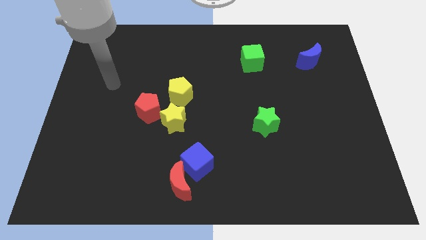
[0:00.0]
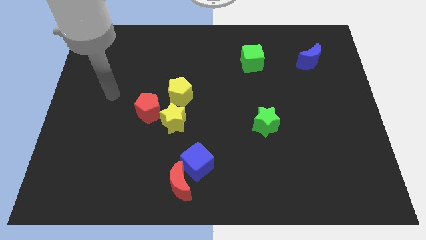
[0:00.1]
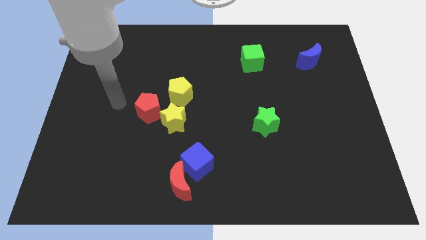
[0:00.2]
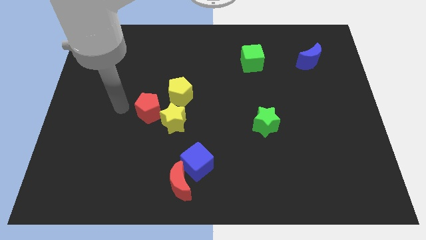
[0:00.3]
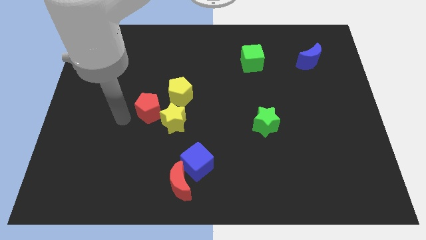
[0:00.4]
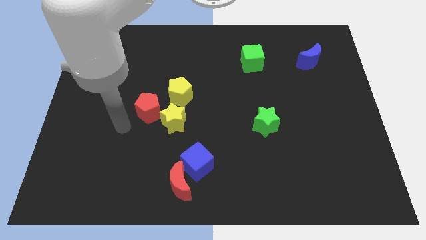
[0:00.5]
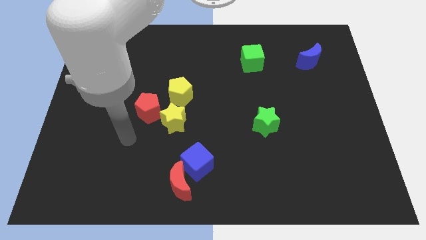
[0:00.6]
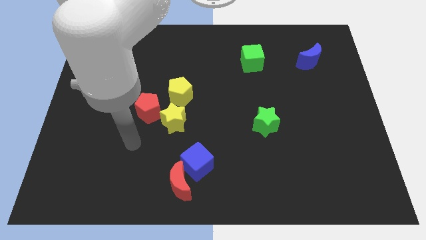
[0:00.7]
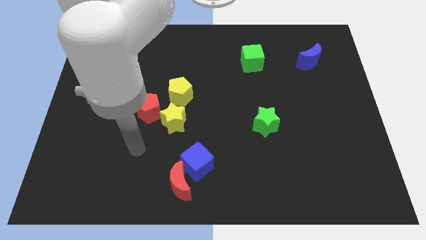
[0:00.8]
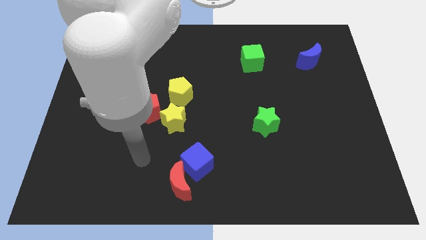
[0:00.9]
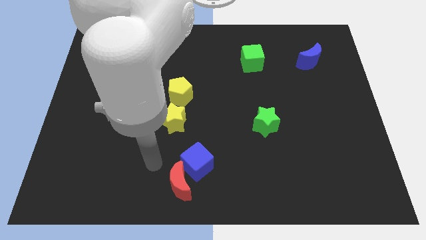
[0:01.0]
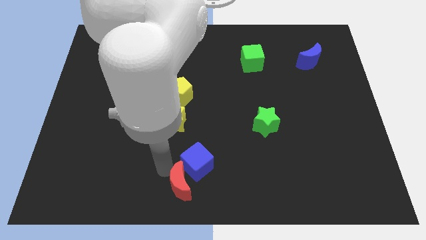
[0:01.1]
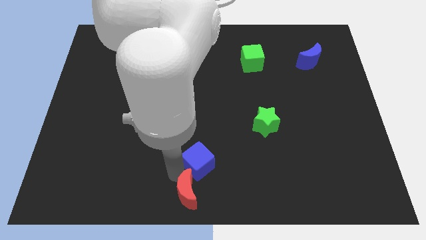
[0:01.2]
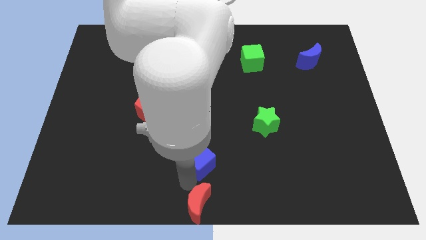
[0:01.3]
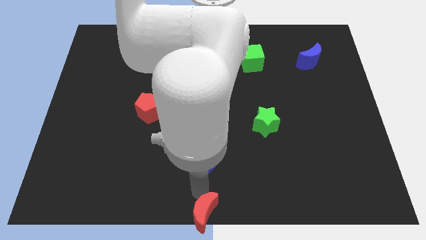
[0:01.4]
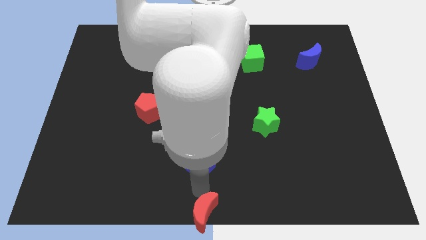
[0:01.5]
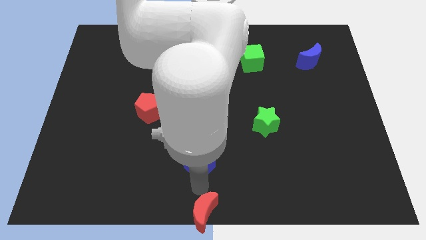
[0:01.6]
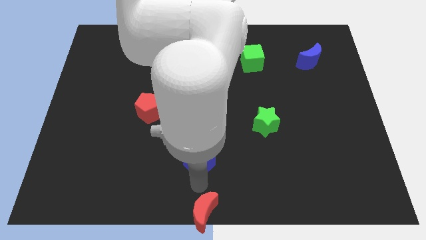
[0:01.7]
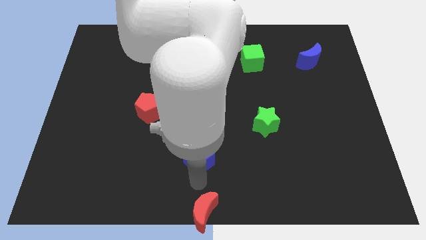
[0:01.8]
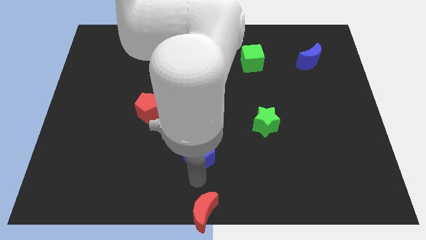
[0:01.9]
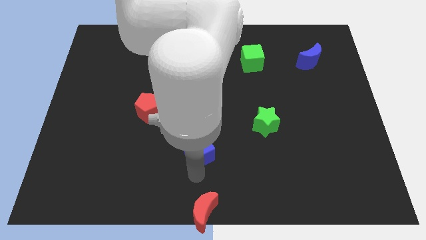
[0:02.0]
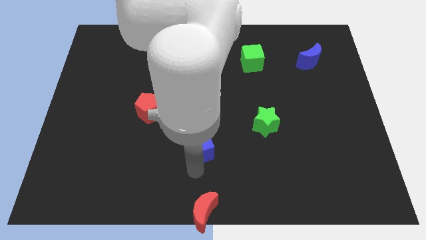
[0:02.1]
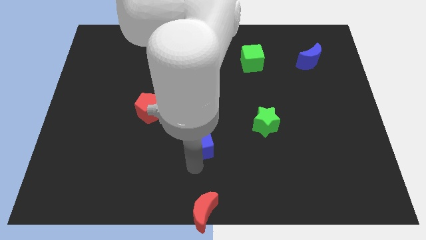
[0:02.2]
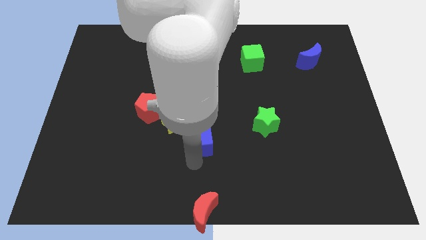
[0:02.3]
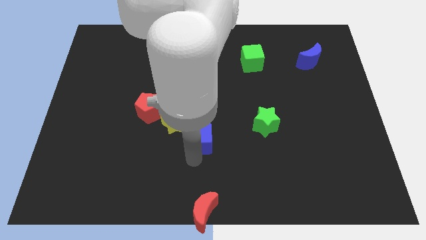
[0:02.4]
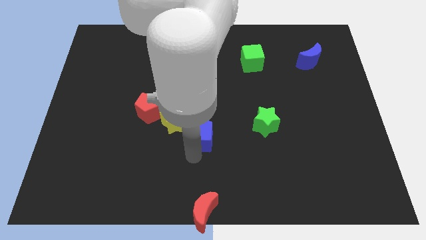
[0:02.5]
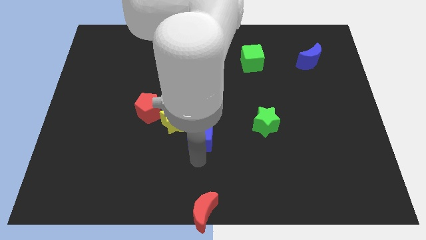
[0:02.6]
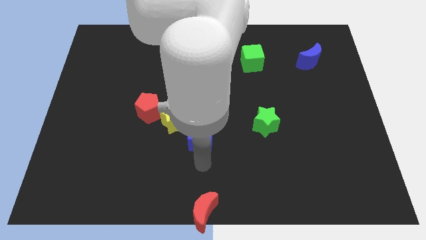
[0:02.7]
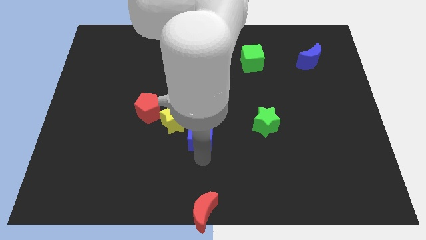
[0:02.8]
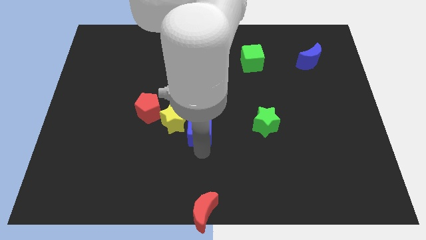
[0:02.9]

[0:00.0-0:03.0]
move the blue cube a little bit up

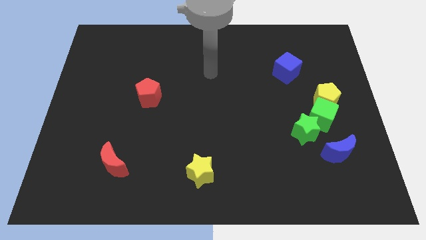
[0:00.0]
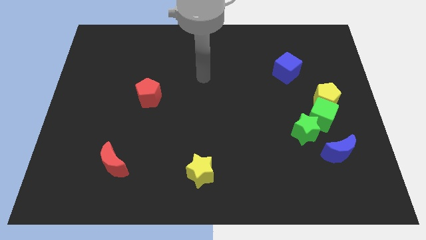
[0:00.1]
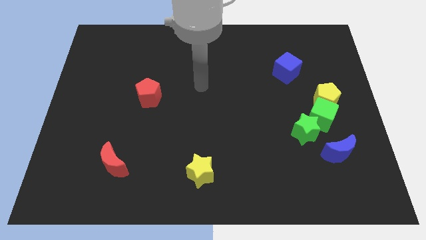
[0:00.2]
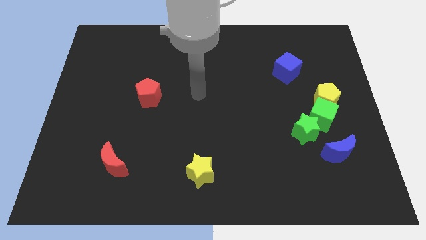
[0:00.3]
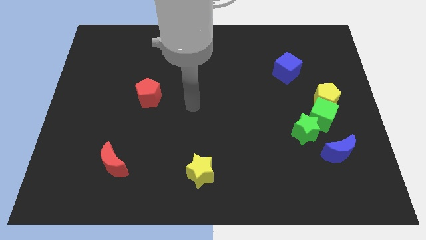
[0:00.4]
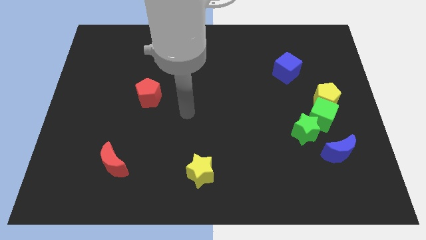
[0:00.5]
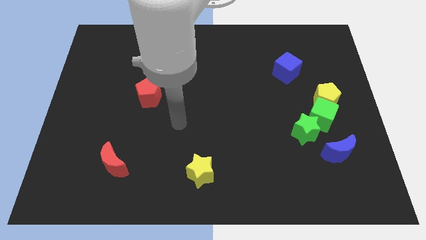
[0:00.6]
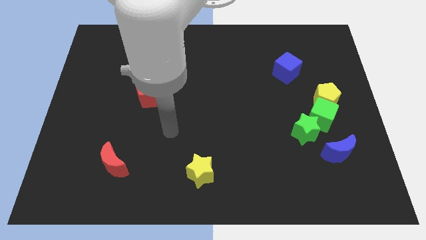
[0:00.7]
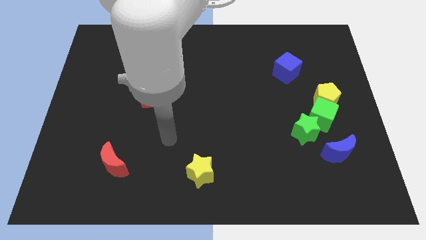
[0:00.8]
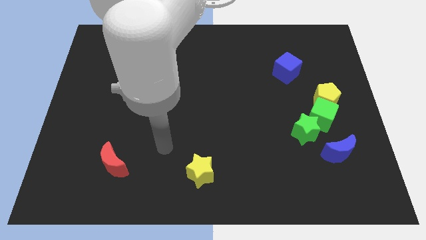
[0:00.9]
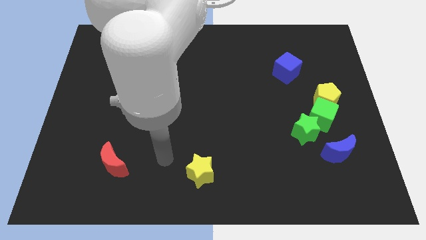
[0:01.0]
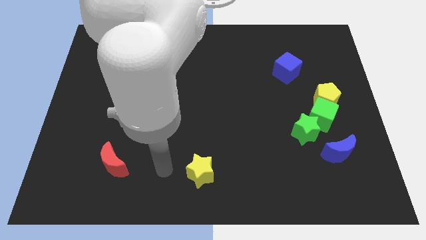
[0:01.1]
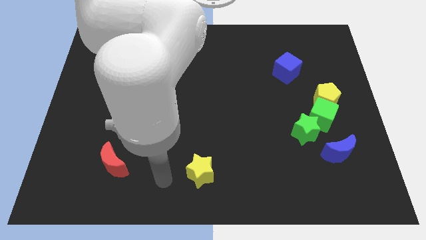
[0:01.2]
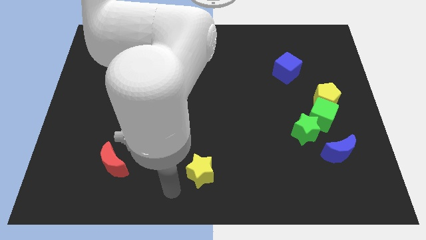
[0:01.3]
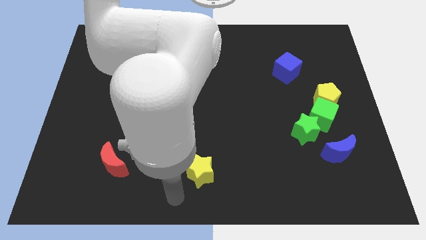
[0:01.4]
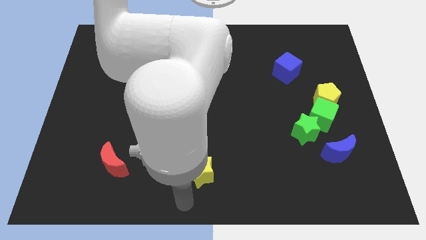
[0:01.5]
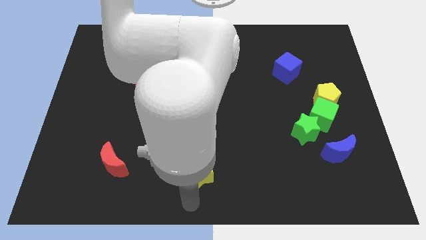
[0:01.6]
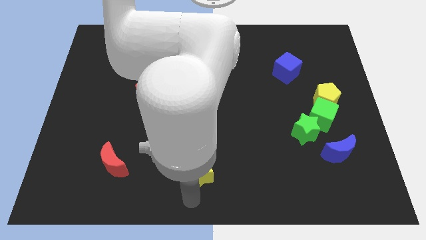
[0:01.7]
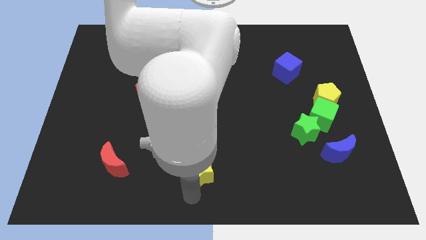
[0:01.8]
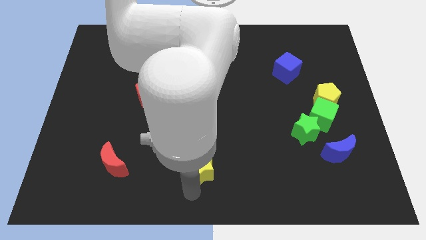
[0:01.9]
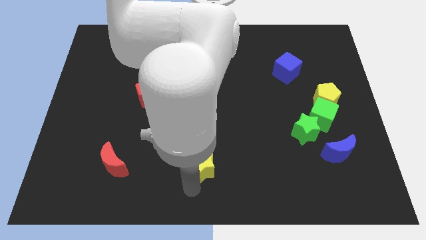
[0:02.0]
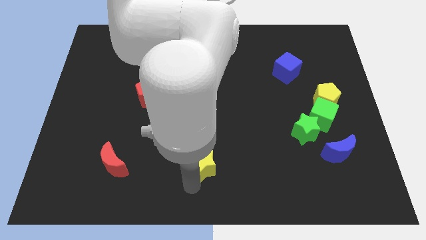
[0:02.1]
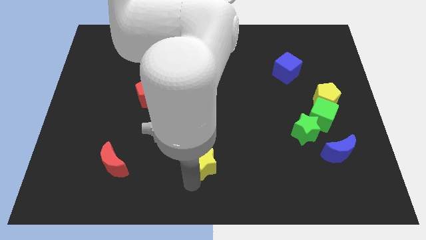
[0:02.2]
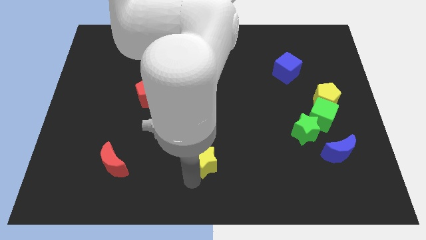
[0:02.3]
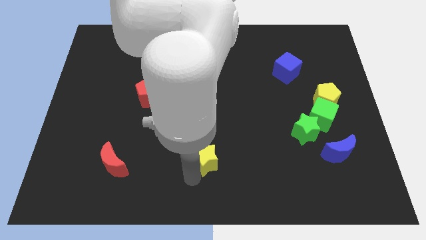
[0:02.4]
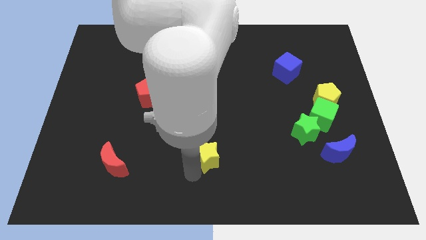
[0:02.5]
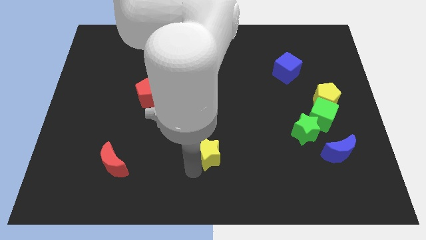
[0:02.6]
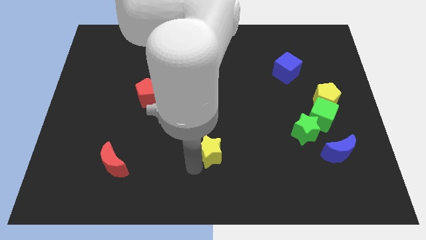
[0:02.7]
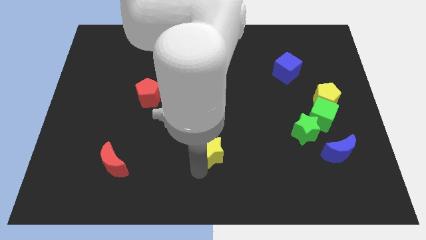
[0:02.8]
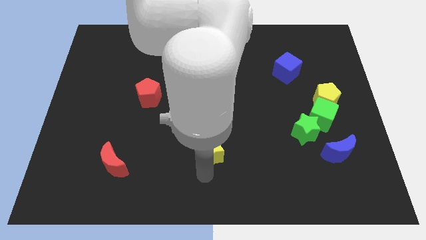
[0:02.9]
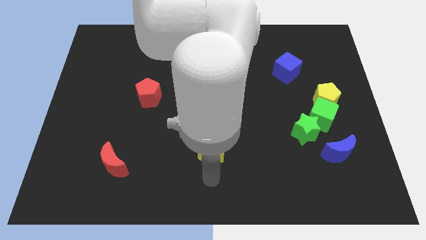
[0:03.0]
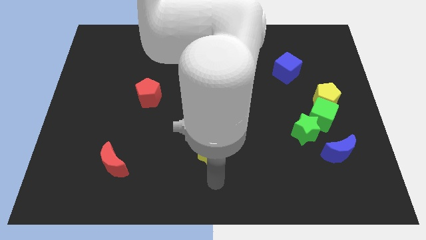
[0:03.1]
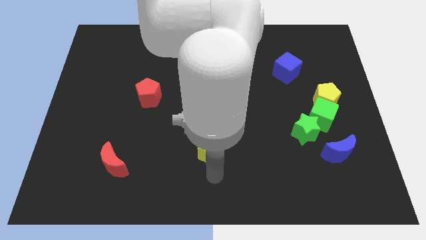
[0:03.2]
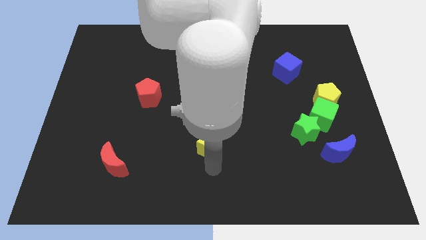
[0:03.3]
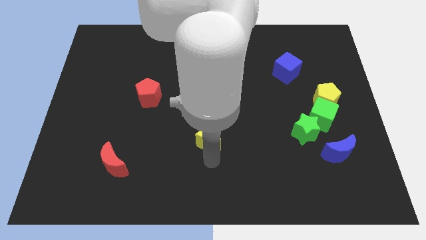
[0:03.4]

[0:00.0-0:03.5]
slightly push the yellow star upwards

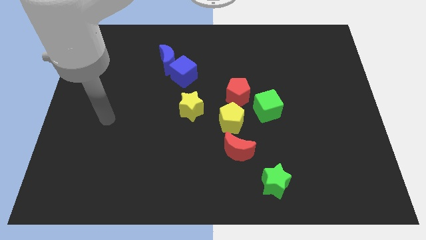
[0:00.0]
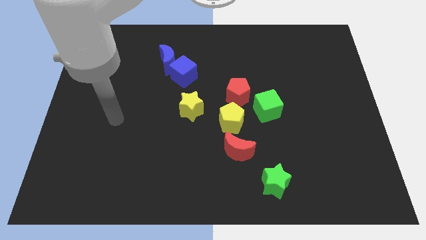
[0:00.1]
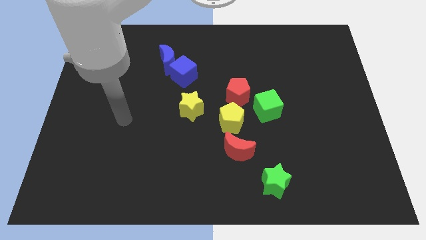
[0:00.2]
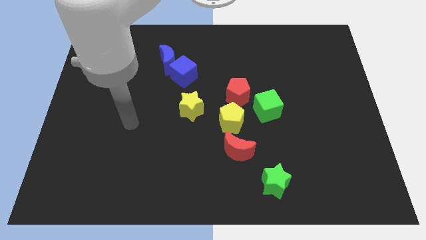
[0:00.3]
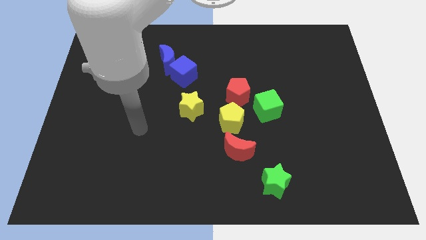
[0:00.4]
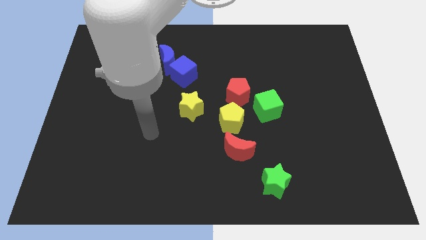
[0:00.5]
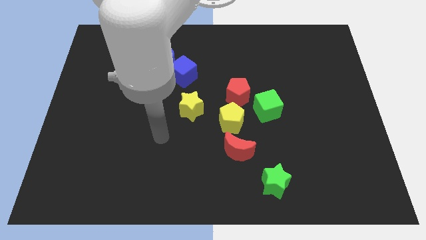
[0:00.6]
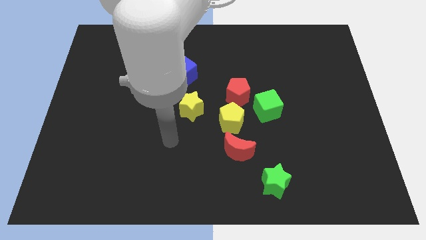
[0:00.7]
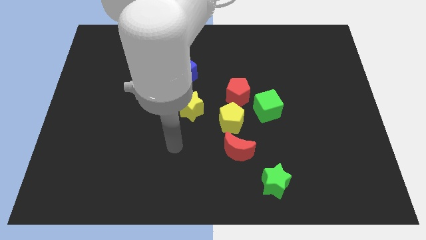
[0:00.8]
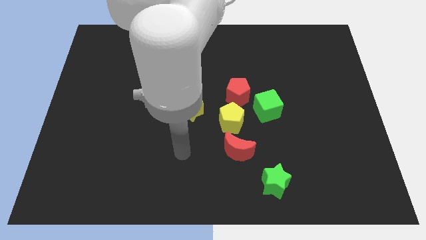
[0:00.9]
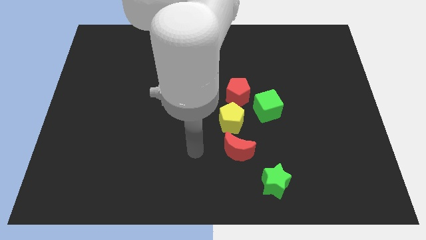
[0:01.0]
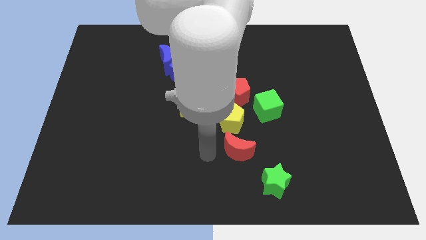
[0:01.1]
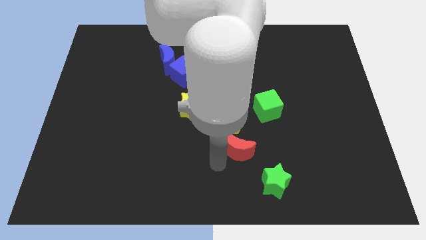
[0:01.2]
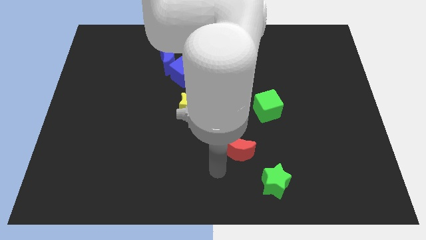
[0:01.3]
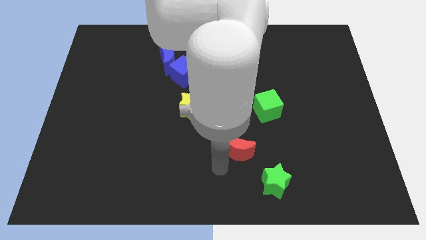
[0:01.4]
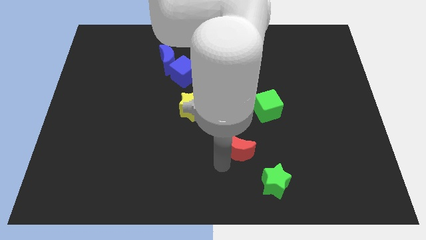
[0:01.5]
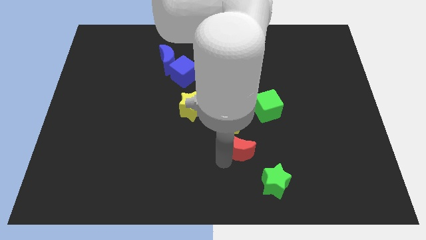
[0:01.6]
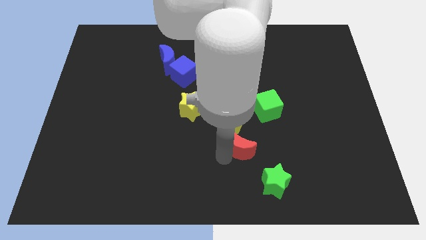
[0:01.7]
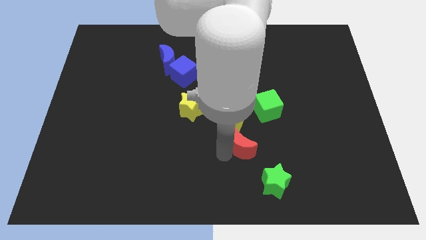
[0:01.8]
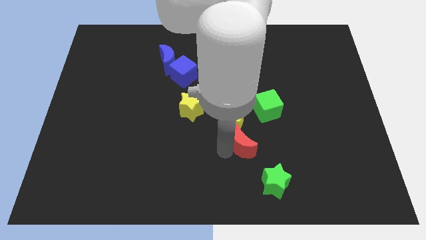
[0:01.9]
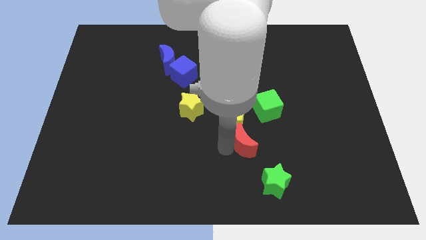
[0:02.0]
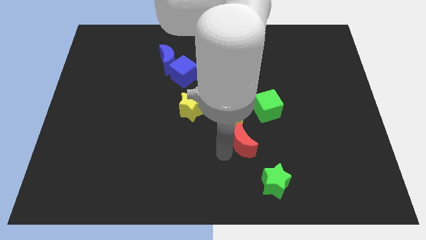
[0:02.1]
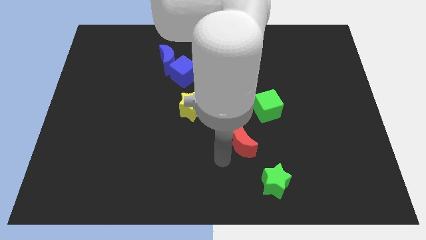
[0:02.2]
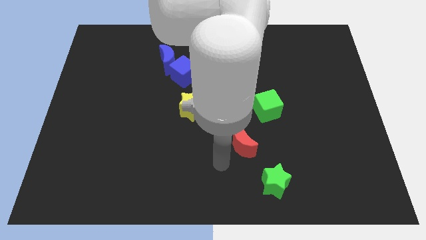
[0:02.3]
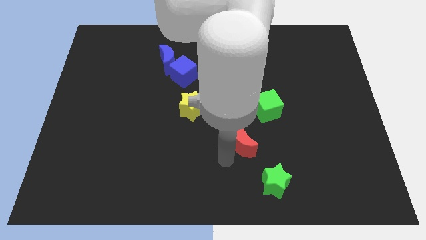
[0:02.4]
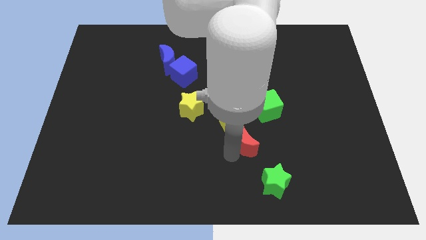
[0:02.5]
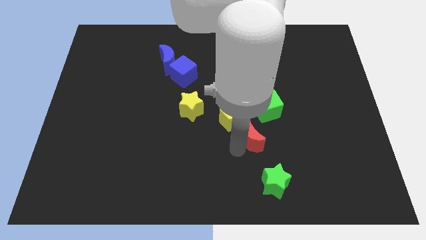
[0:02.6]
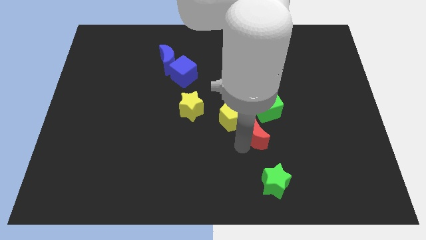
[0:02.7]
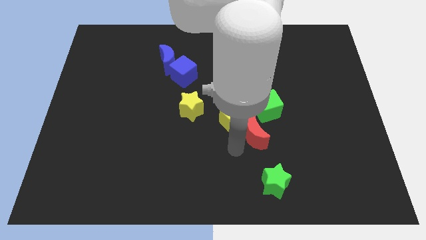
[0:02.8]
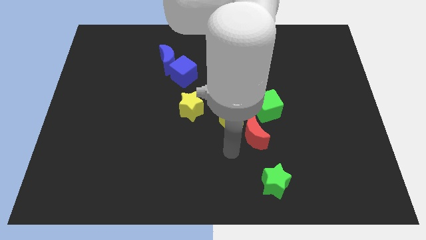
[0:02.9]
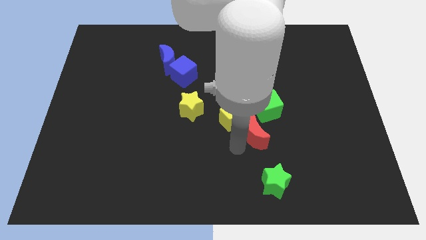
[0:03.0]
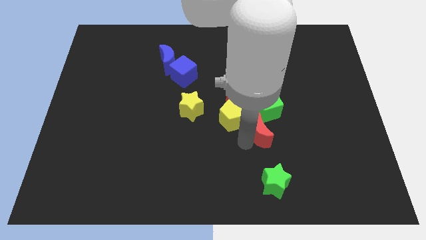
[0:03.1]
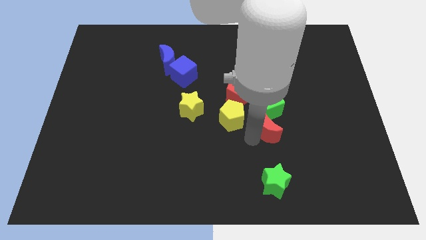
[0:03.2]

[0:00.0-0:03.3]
move the red moon diagonally up and right a little
